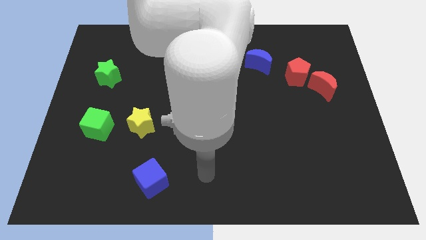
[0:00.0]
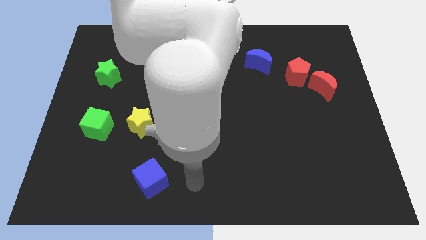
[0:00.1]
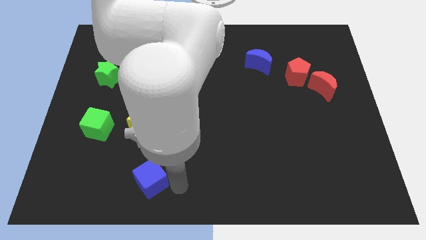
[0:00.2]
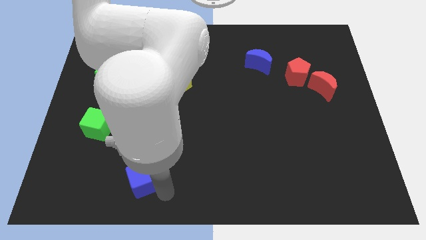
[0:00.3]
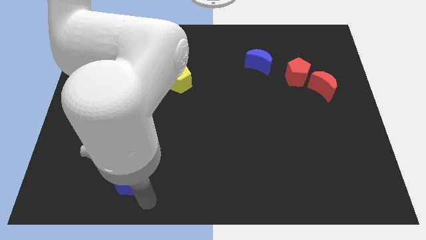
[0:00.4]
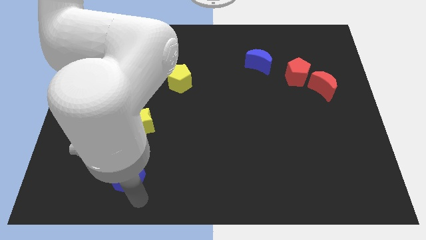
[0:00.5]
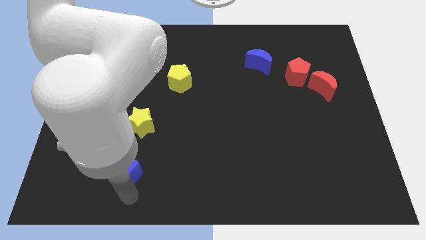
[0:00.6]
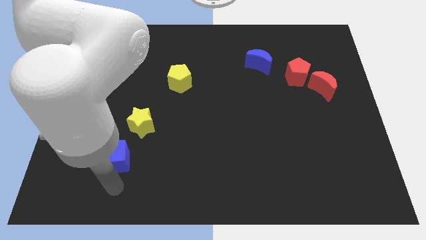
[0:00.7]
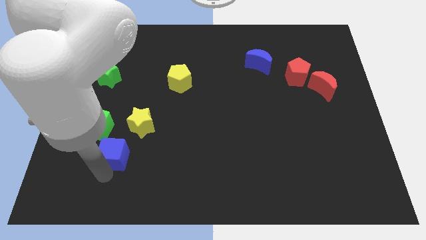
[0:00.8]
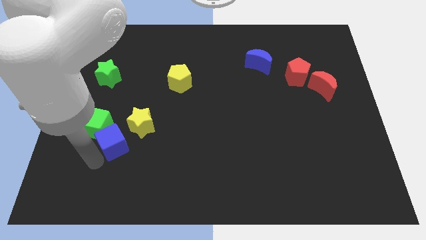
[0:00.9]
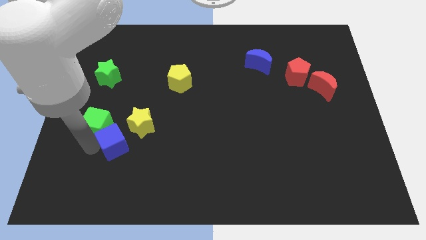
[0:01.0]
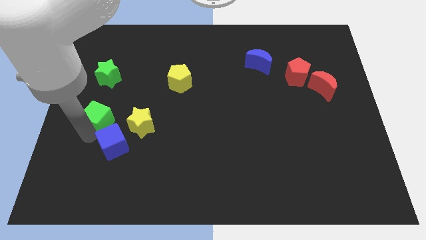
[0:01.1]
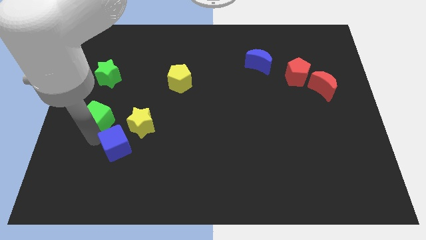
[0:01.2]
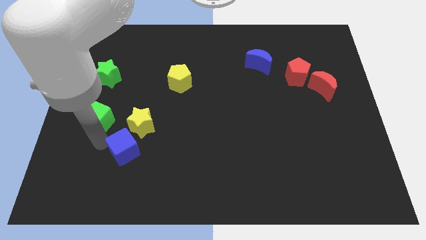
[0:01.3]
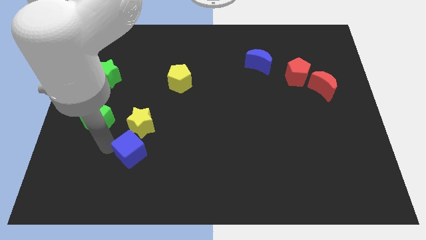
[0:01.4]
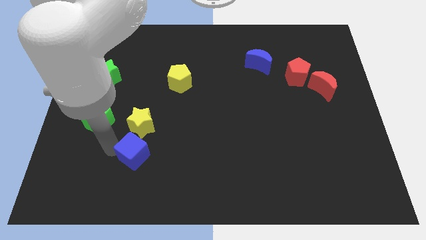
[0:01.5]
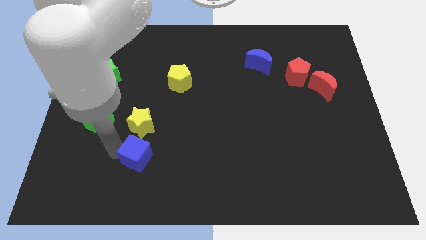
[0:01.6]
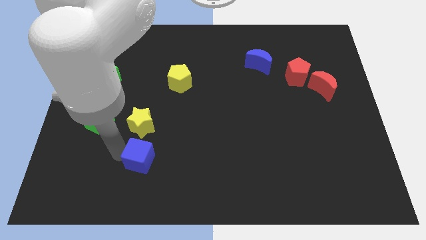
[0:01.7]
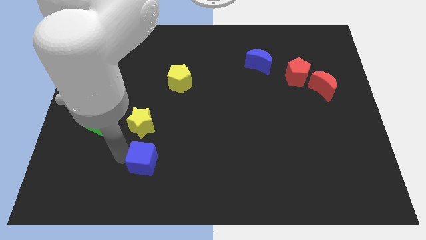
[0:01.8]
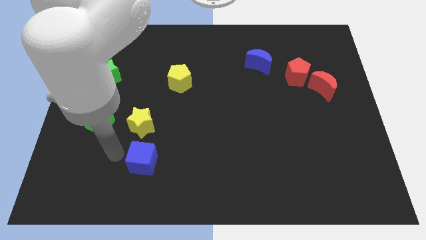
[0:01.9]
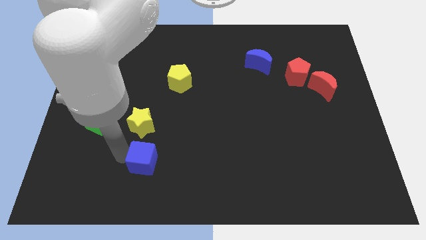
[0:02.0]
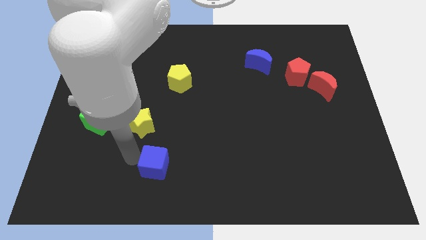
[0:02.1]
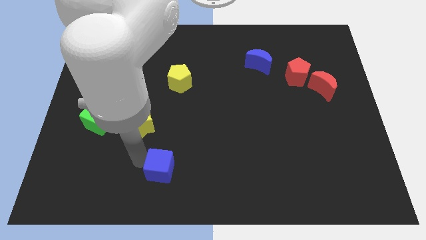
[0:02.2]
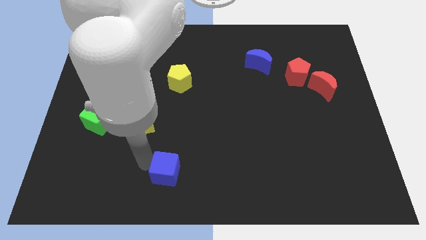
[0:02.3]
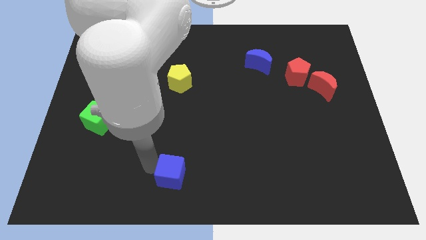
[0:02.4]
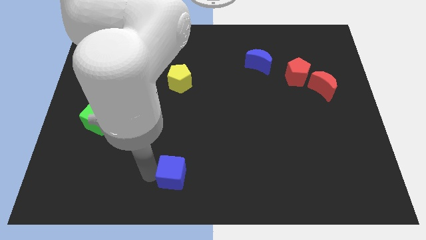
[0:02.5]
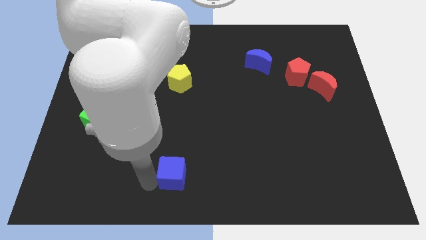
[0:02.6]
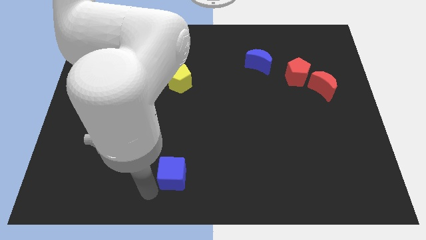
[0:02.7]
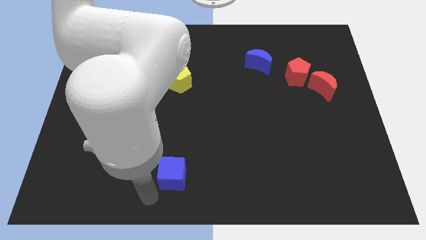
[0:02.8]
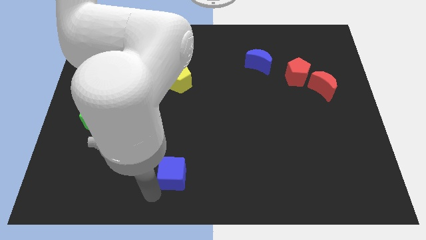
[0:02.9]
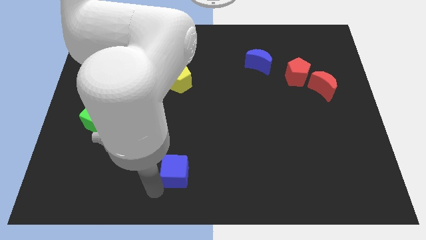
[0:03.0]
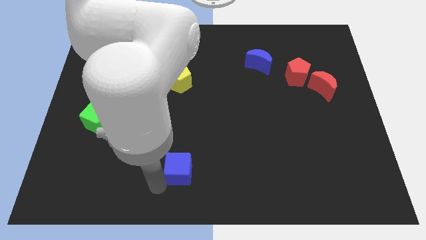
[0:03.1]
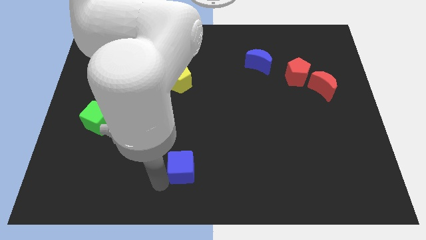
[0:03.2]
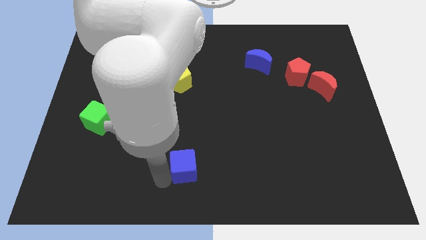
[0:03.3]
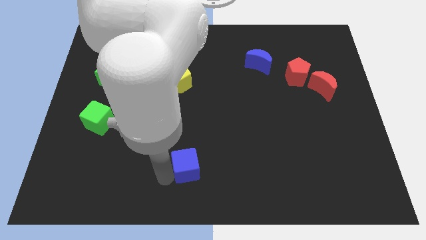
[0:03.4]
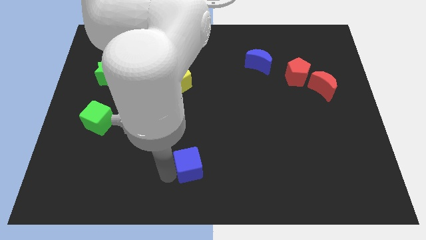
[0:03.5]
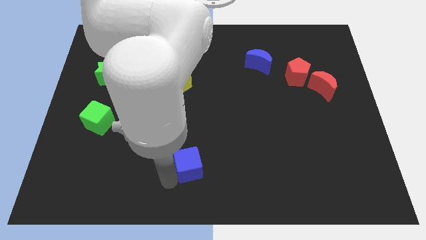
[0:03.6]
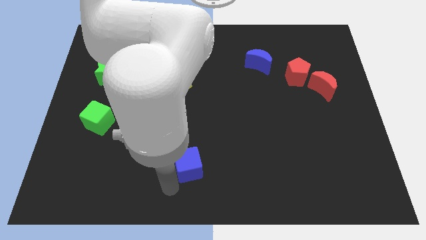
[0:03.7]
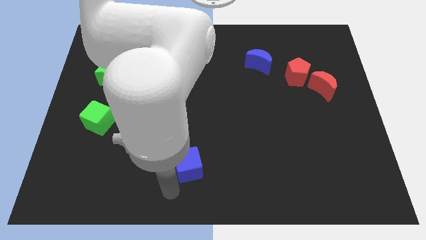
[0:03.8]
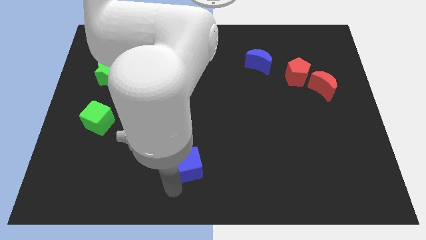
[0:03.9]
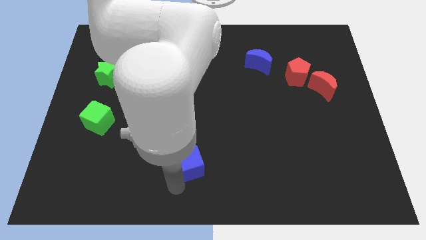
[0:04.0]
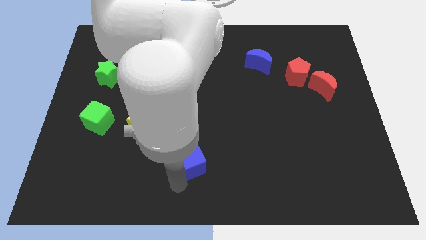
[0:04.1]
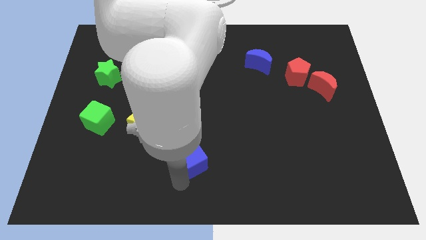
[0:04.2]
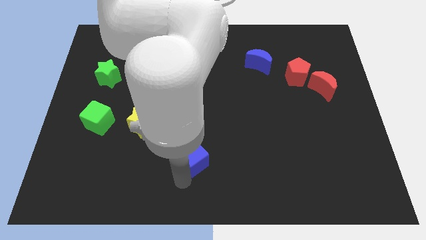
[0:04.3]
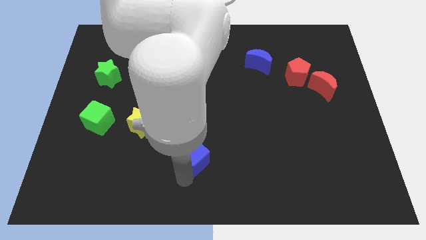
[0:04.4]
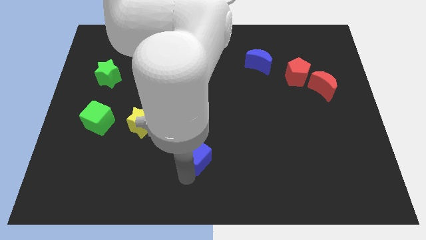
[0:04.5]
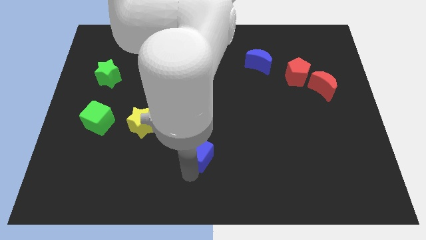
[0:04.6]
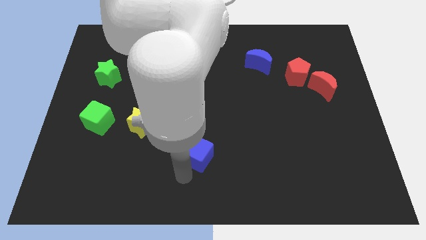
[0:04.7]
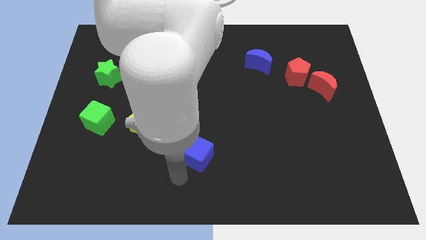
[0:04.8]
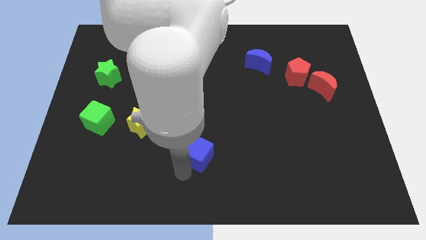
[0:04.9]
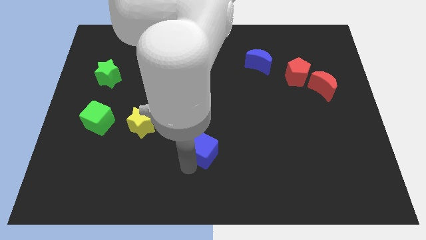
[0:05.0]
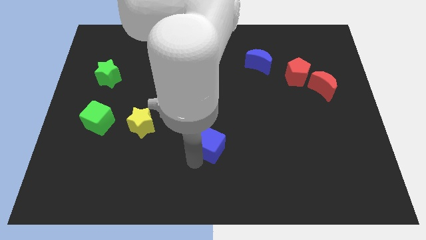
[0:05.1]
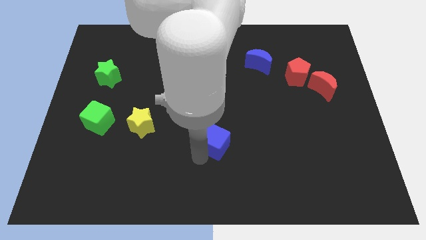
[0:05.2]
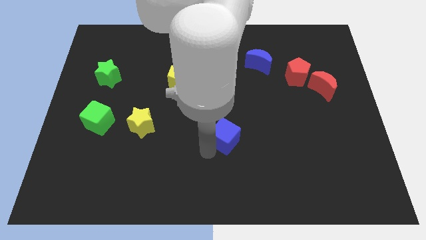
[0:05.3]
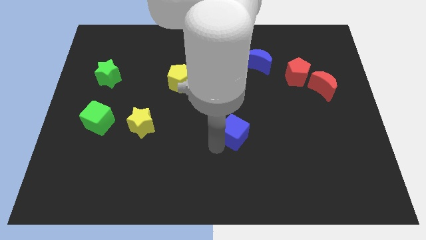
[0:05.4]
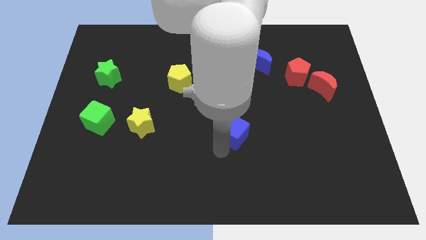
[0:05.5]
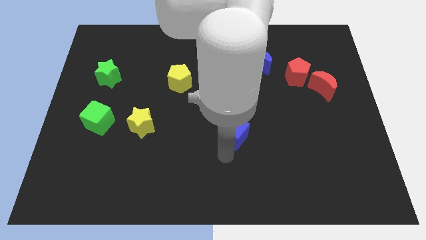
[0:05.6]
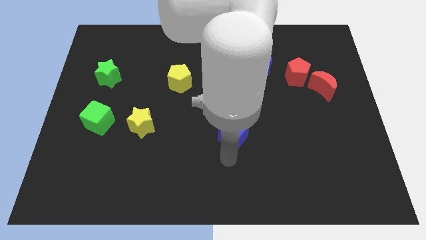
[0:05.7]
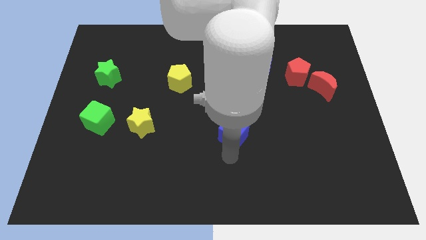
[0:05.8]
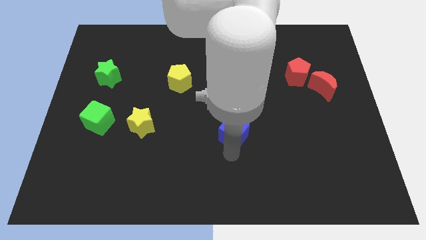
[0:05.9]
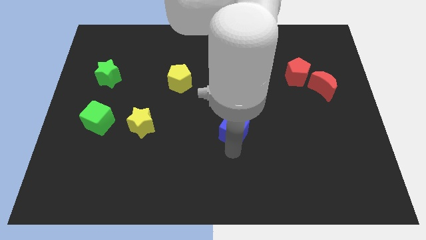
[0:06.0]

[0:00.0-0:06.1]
slide the blue cube up and to the right diagonally

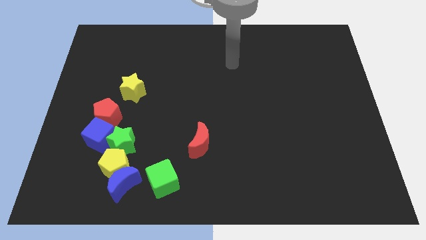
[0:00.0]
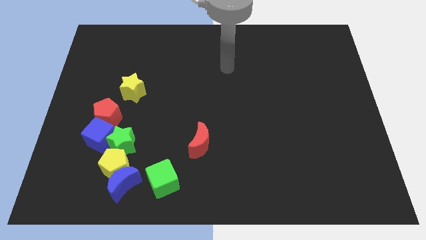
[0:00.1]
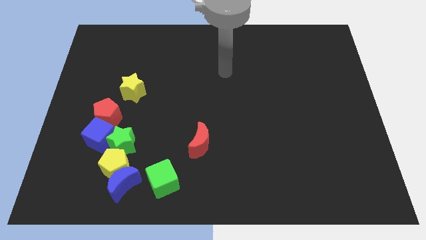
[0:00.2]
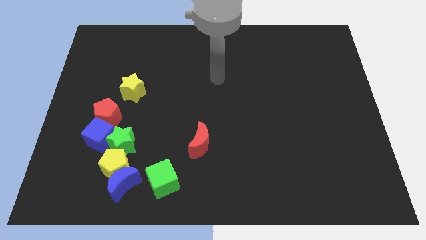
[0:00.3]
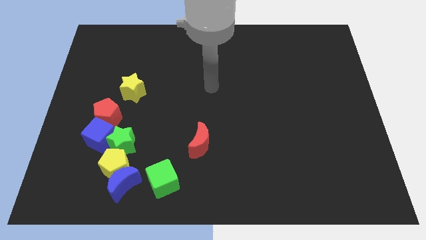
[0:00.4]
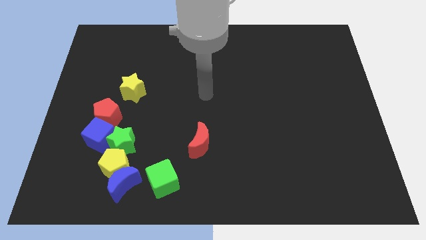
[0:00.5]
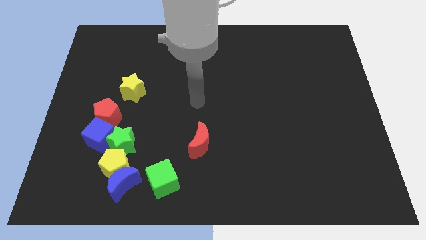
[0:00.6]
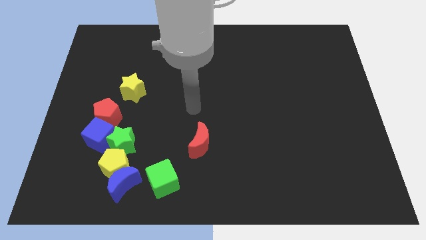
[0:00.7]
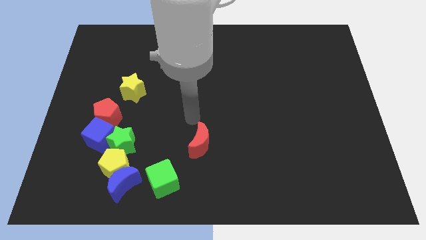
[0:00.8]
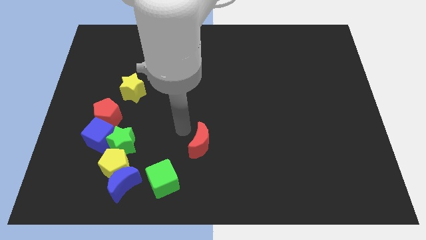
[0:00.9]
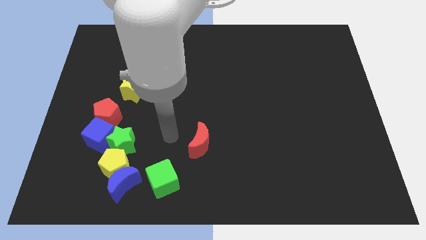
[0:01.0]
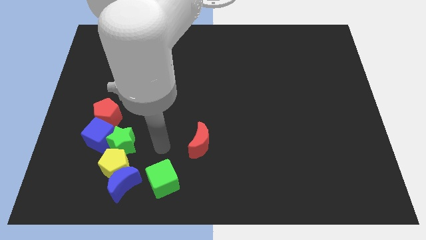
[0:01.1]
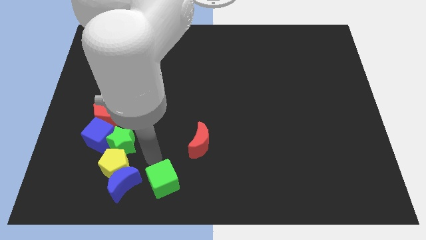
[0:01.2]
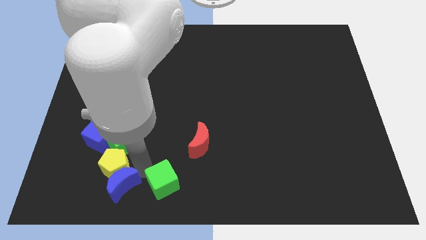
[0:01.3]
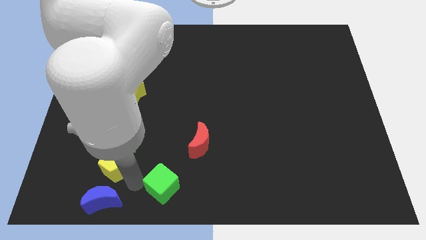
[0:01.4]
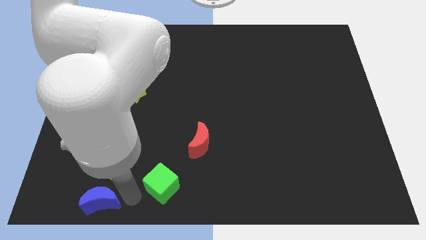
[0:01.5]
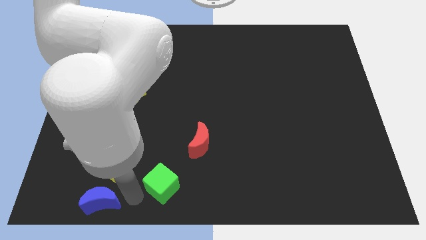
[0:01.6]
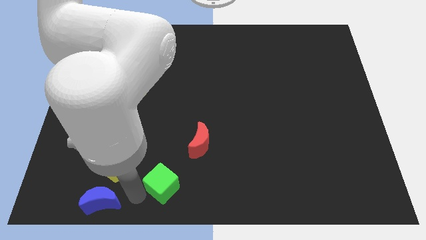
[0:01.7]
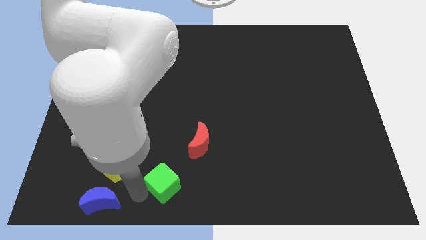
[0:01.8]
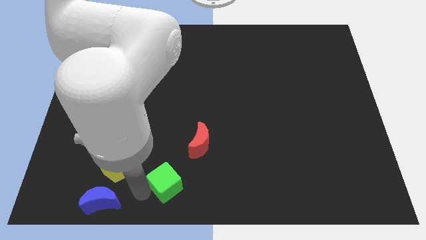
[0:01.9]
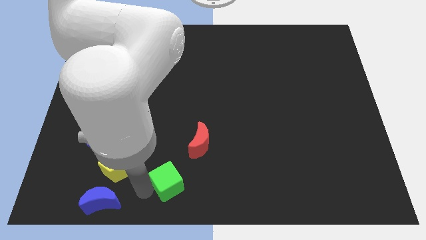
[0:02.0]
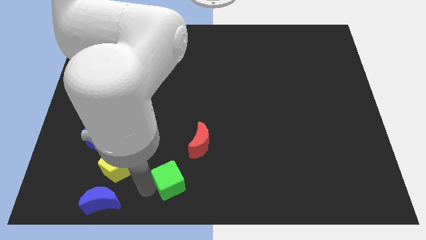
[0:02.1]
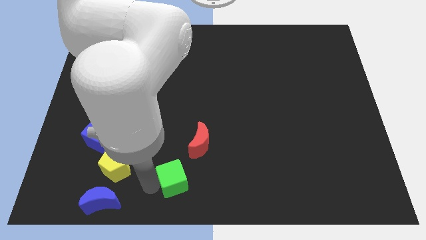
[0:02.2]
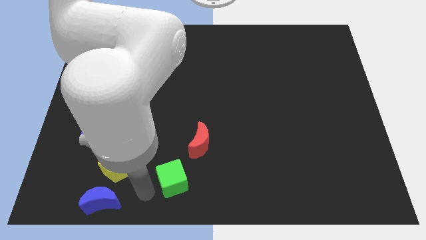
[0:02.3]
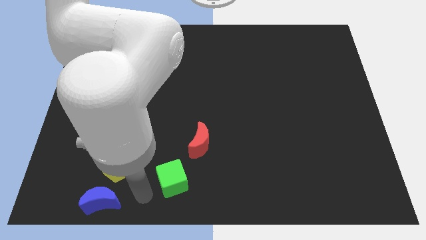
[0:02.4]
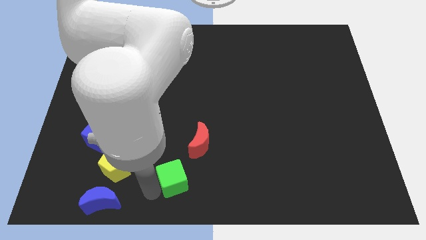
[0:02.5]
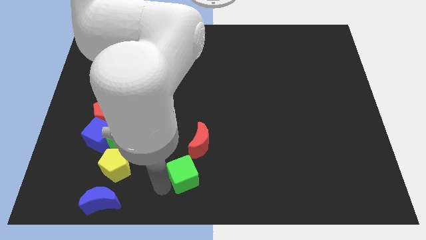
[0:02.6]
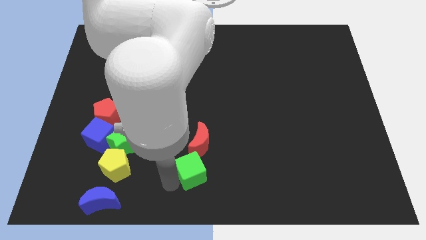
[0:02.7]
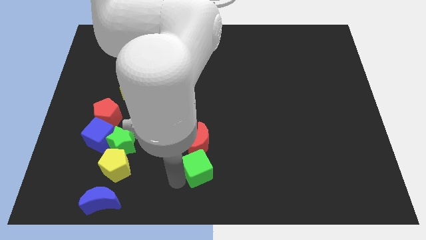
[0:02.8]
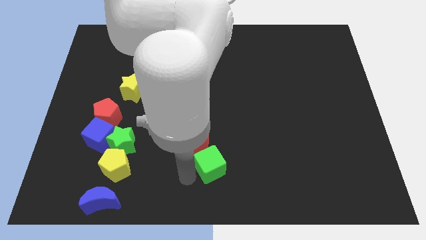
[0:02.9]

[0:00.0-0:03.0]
slide the green cube up and right diagonally a little
